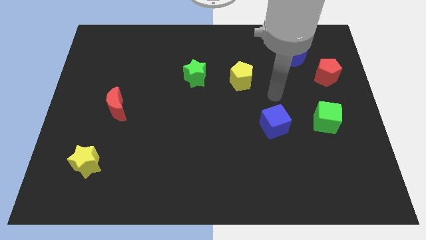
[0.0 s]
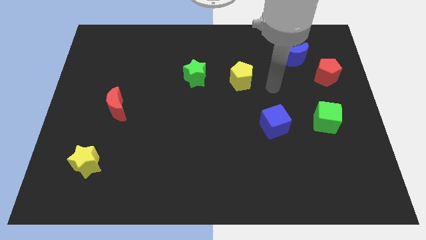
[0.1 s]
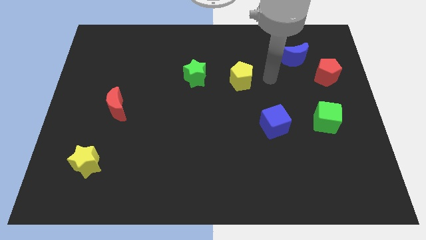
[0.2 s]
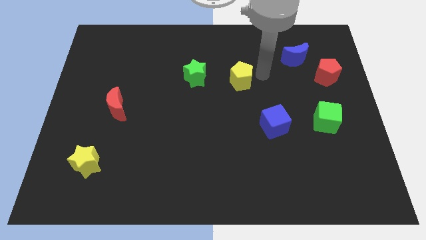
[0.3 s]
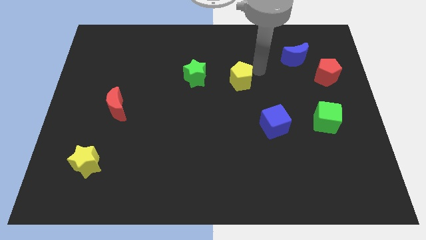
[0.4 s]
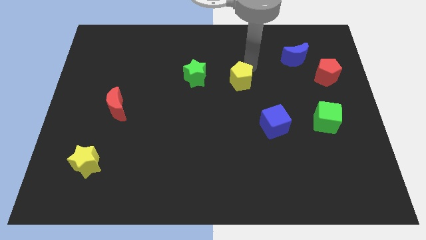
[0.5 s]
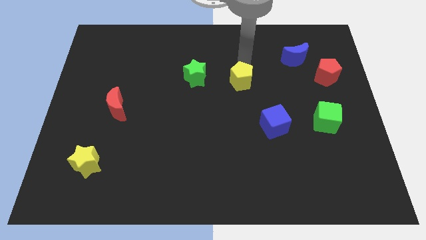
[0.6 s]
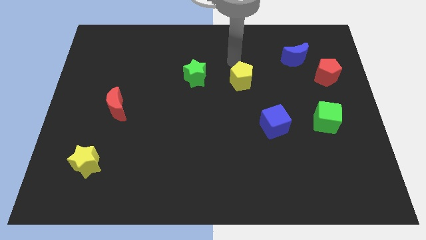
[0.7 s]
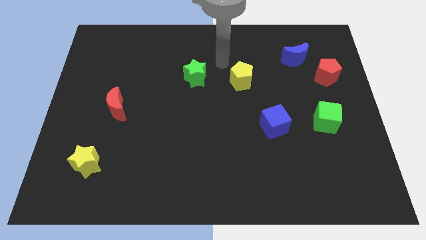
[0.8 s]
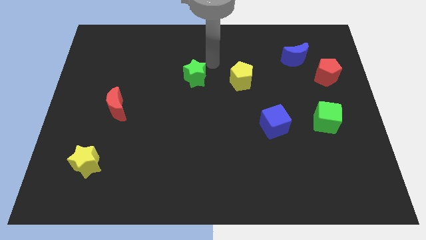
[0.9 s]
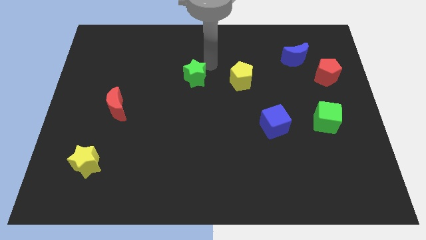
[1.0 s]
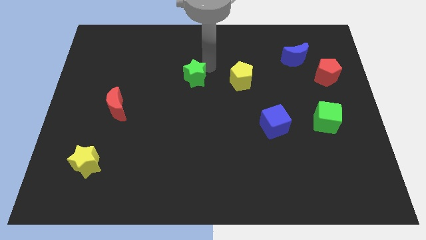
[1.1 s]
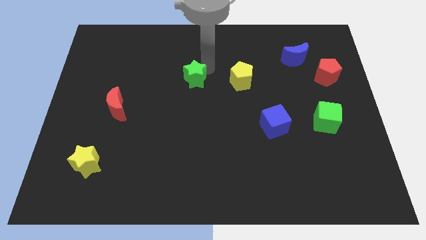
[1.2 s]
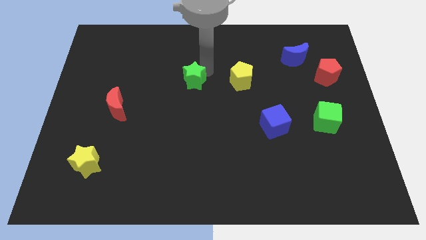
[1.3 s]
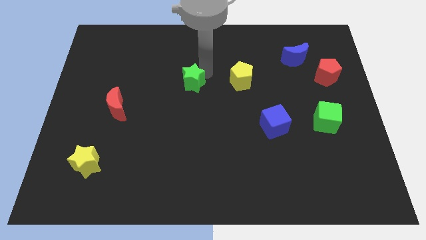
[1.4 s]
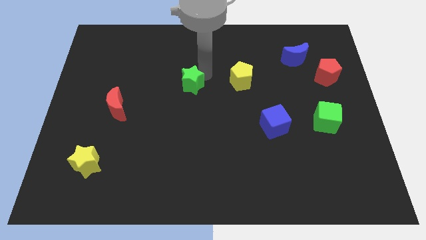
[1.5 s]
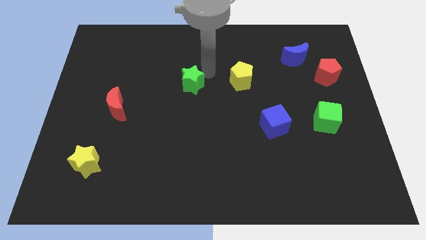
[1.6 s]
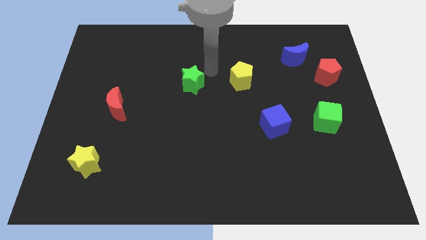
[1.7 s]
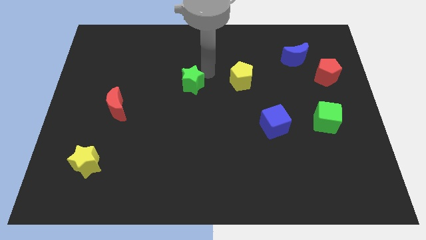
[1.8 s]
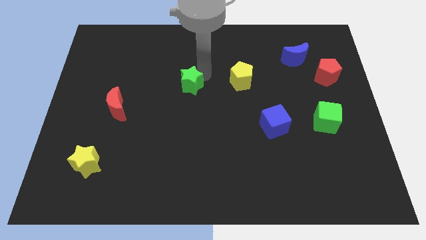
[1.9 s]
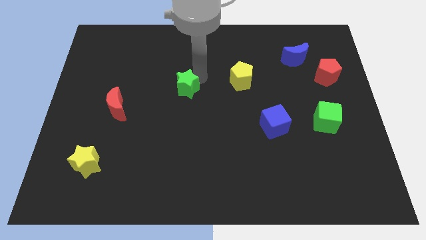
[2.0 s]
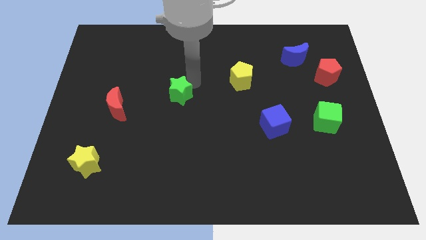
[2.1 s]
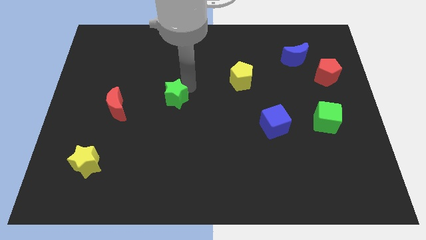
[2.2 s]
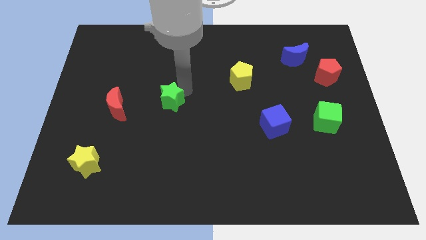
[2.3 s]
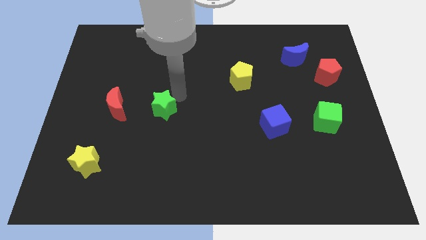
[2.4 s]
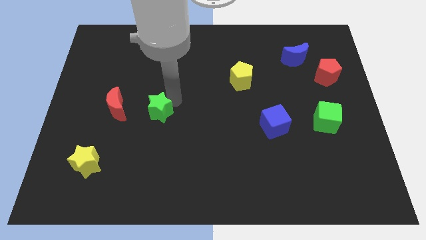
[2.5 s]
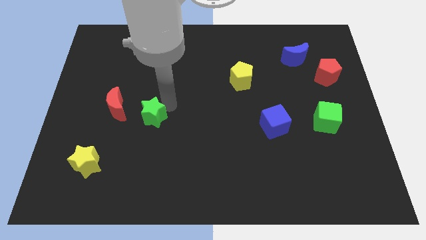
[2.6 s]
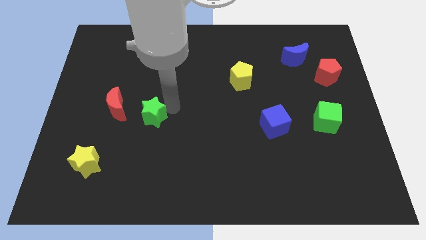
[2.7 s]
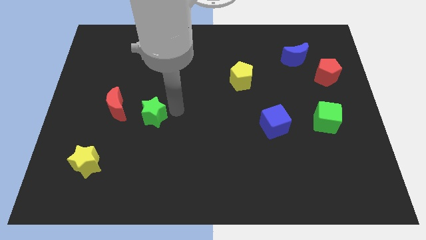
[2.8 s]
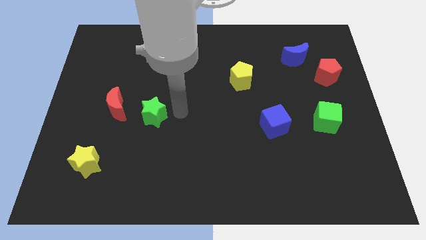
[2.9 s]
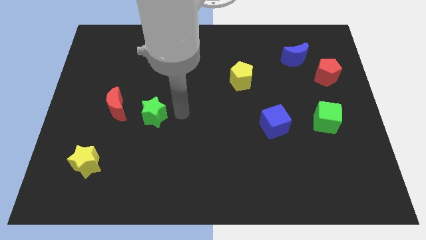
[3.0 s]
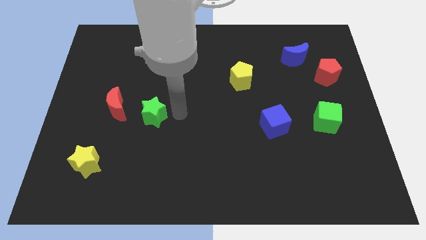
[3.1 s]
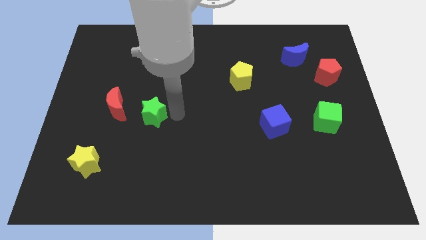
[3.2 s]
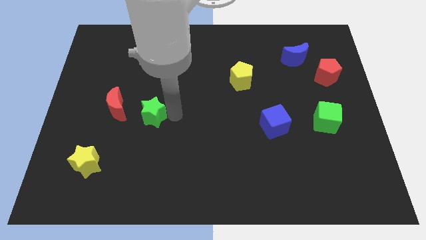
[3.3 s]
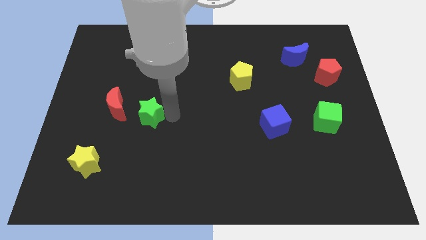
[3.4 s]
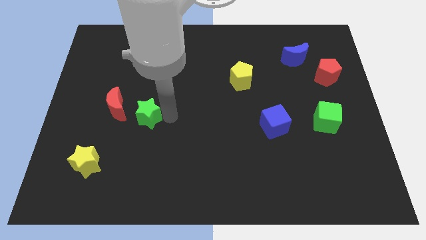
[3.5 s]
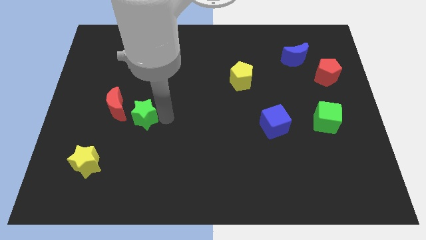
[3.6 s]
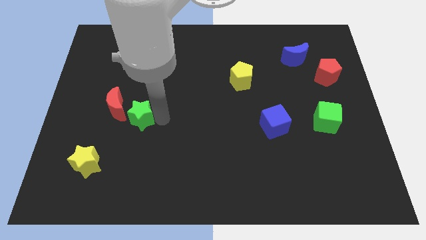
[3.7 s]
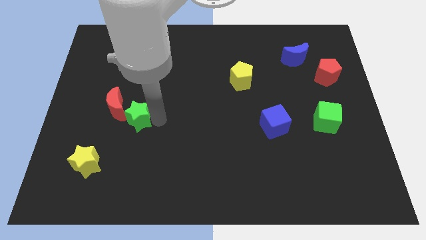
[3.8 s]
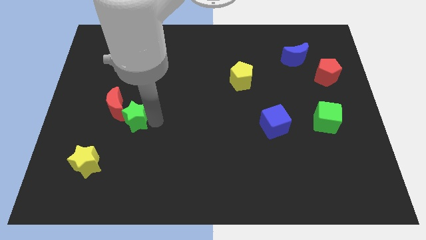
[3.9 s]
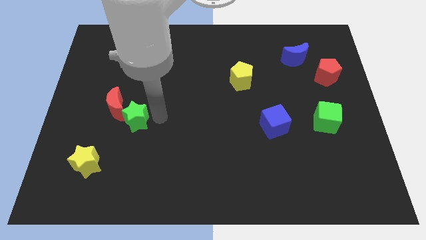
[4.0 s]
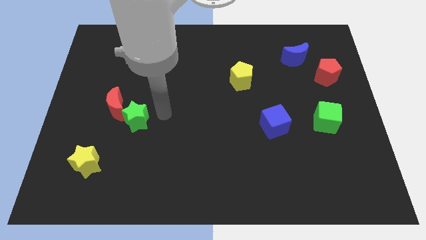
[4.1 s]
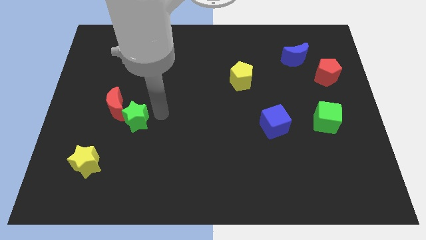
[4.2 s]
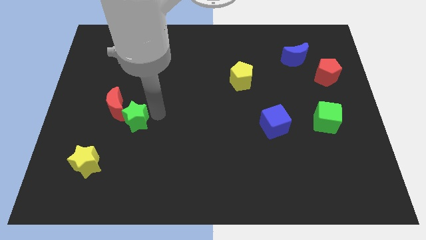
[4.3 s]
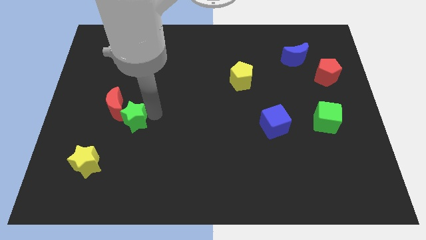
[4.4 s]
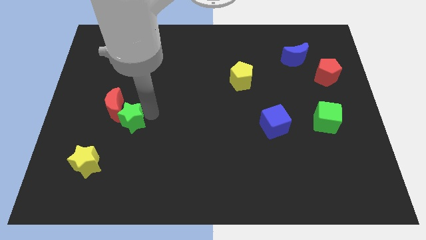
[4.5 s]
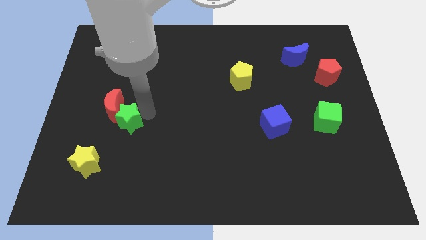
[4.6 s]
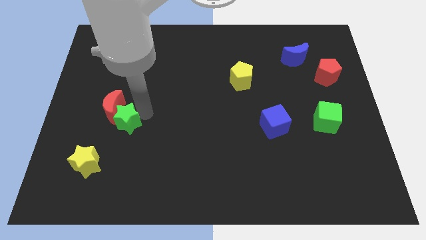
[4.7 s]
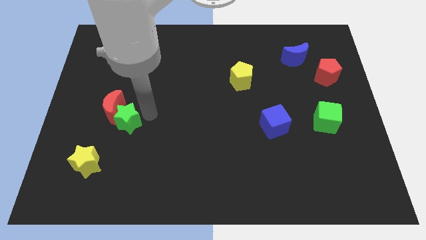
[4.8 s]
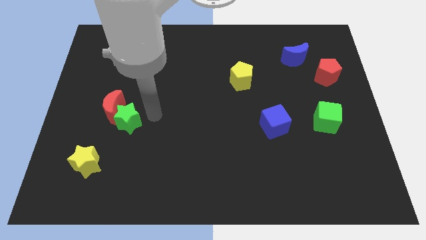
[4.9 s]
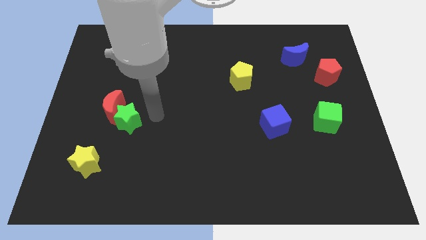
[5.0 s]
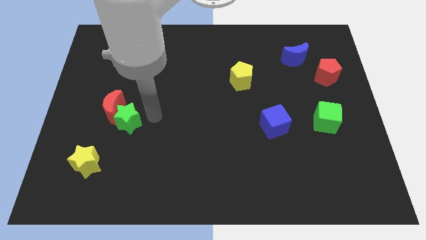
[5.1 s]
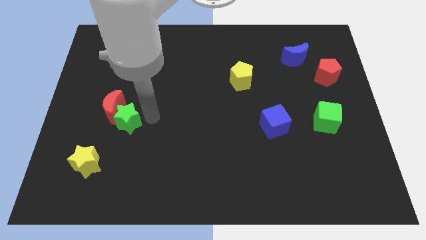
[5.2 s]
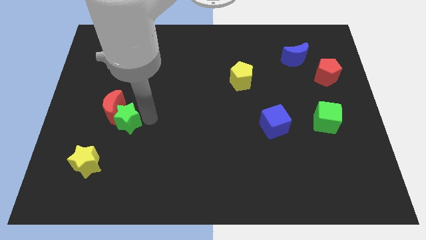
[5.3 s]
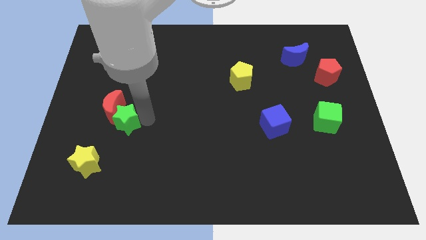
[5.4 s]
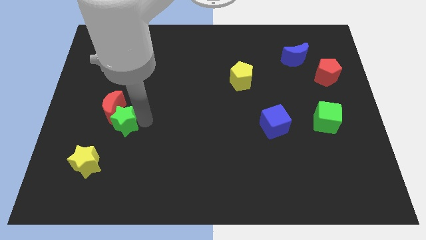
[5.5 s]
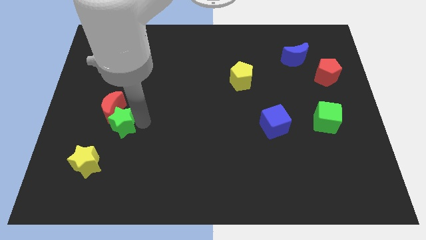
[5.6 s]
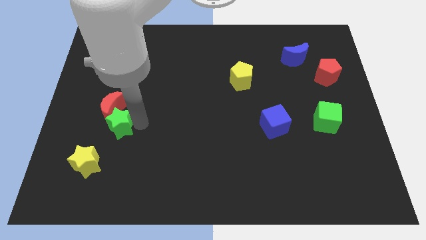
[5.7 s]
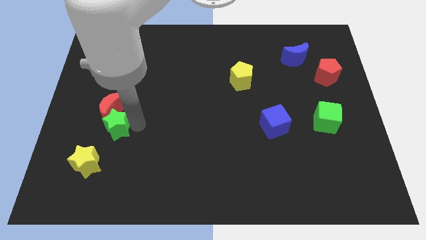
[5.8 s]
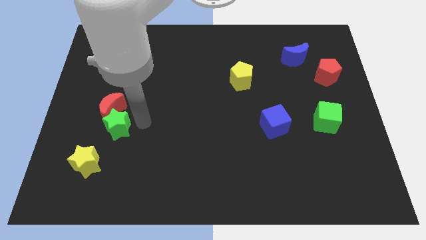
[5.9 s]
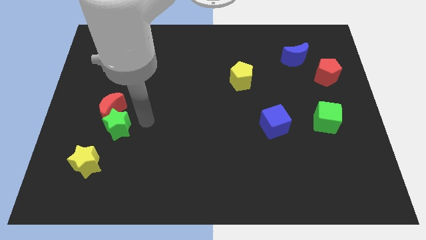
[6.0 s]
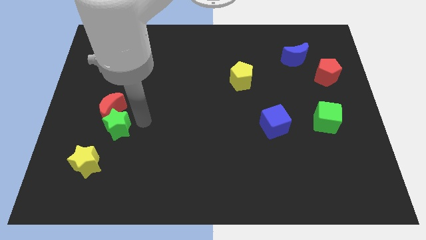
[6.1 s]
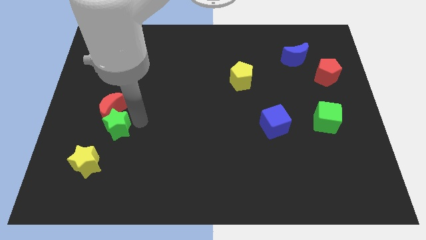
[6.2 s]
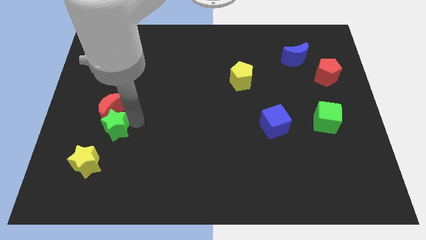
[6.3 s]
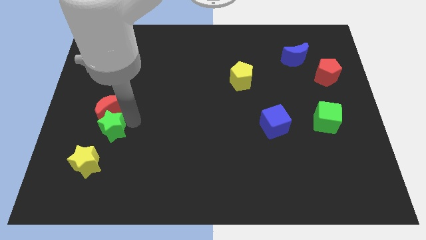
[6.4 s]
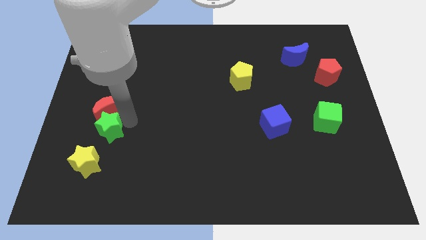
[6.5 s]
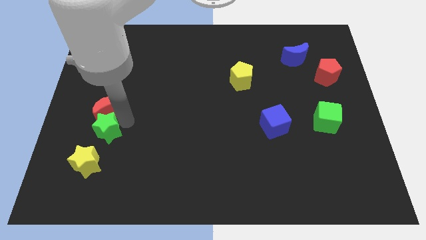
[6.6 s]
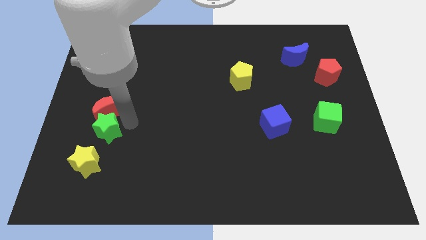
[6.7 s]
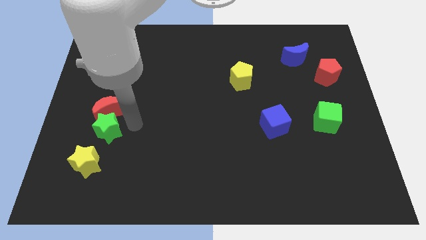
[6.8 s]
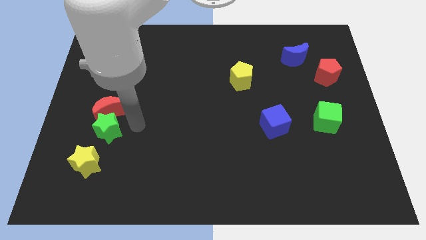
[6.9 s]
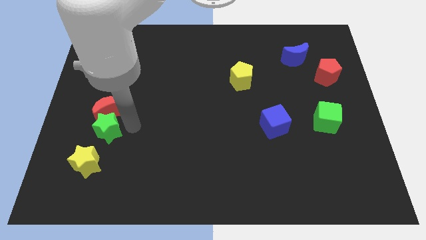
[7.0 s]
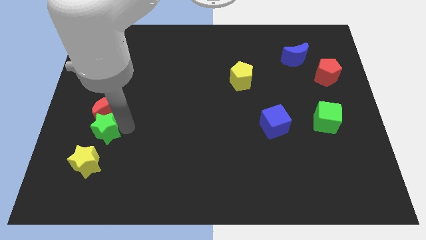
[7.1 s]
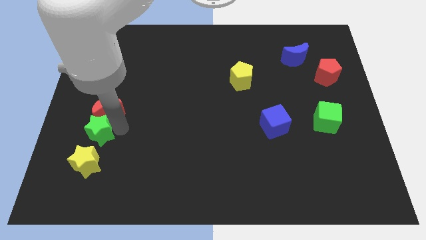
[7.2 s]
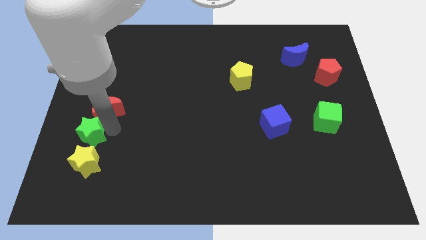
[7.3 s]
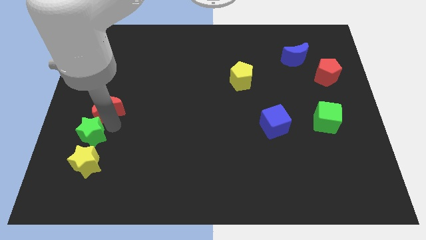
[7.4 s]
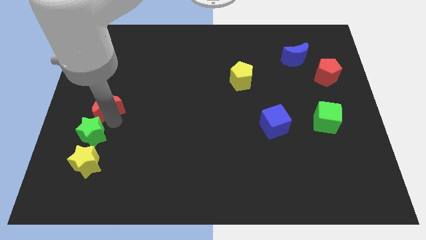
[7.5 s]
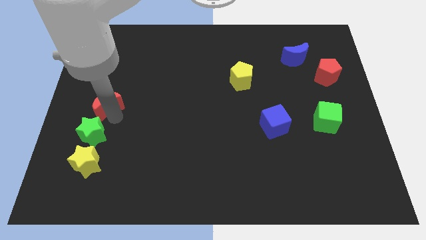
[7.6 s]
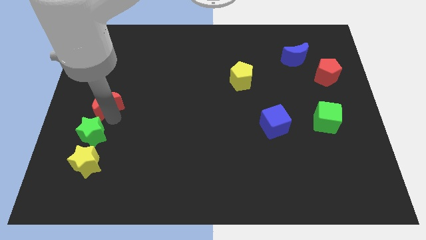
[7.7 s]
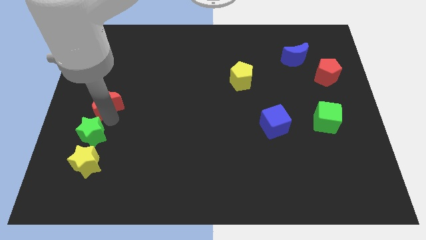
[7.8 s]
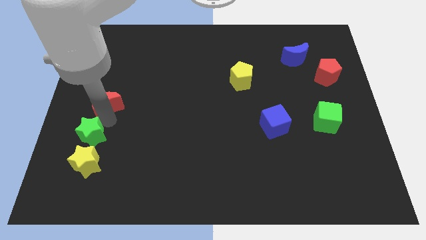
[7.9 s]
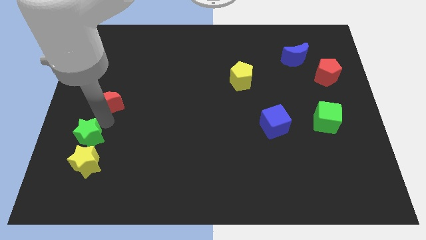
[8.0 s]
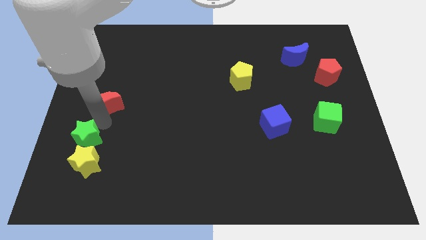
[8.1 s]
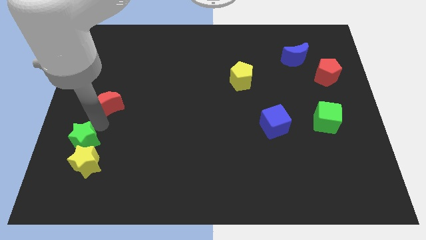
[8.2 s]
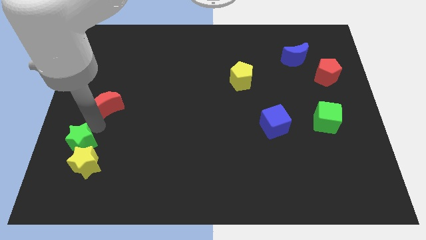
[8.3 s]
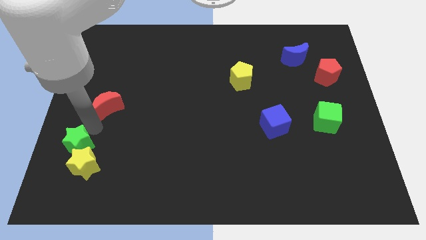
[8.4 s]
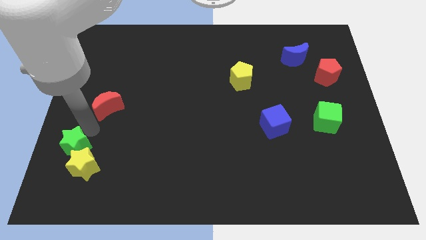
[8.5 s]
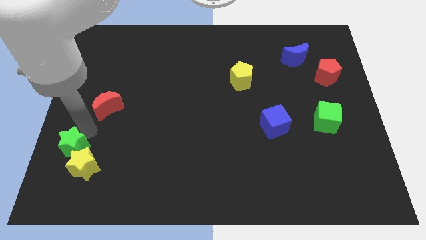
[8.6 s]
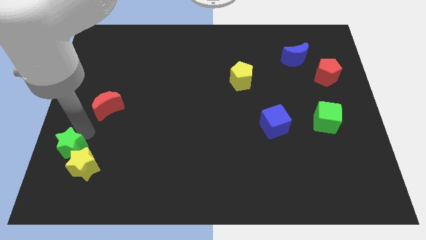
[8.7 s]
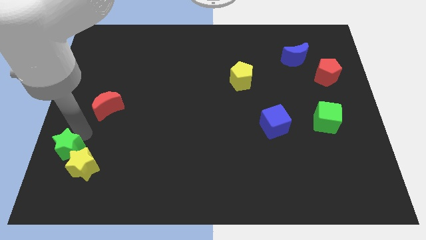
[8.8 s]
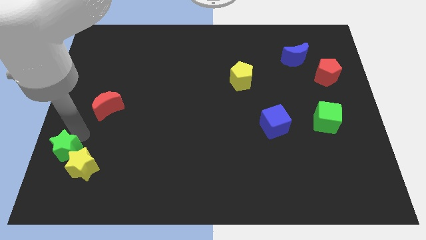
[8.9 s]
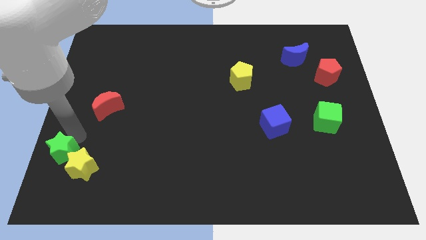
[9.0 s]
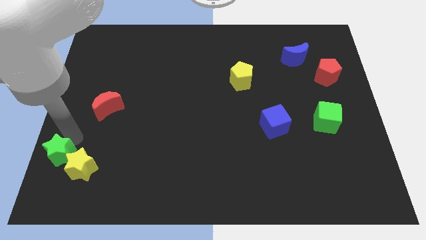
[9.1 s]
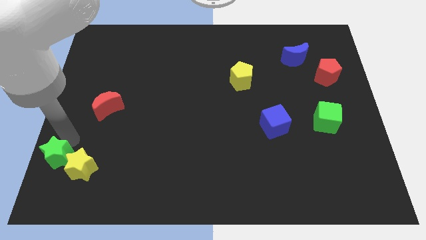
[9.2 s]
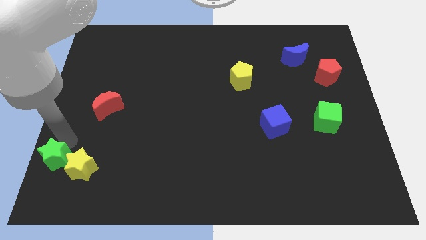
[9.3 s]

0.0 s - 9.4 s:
put the green star to the bottom left of the board
